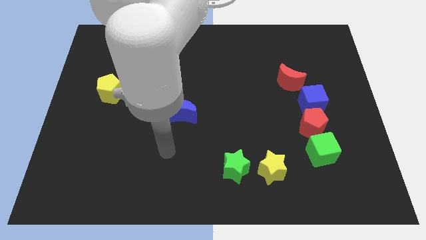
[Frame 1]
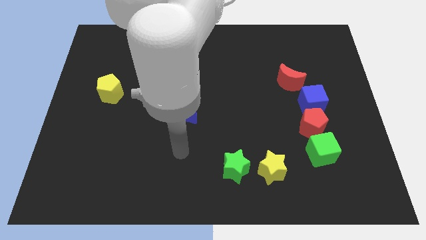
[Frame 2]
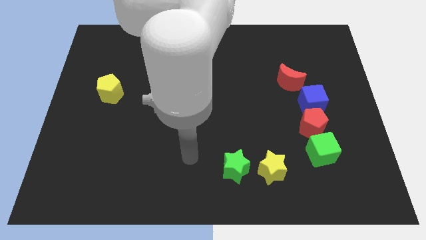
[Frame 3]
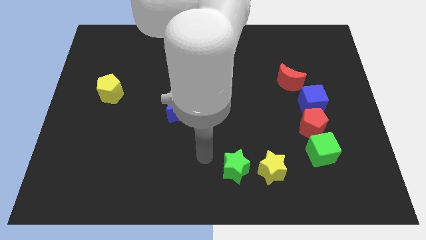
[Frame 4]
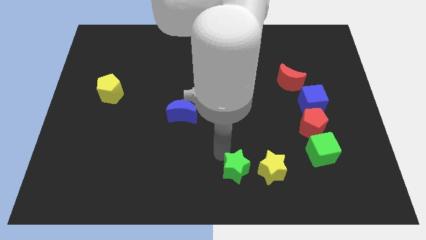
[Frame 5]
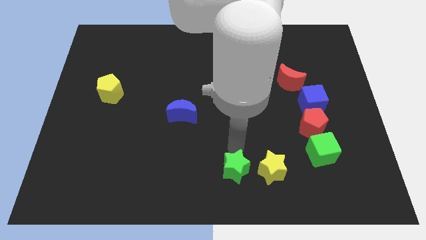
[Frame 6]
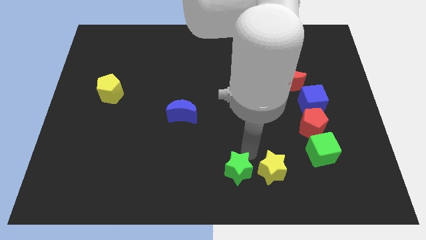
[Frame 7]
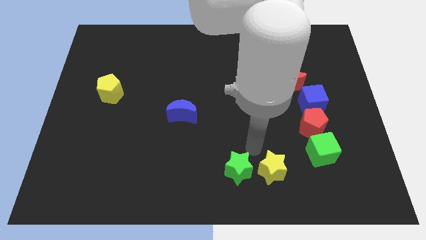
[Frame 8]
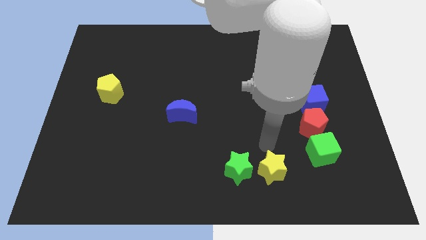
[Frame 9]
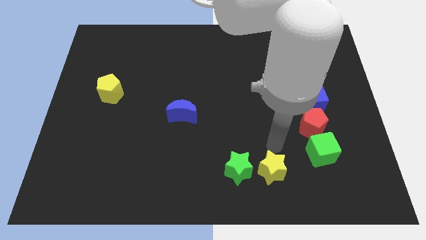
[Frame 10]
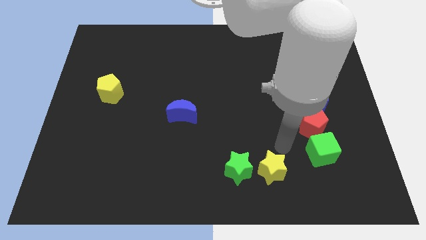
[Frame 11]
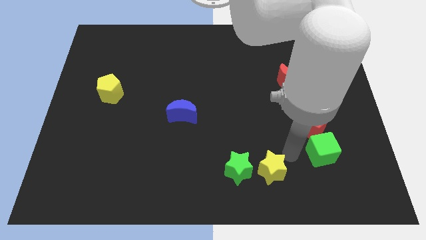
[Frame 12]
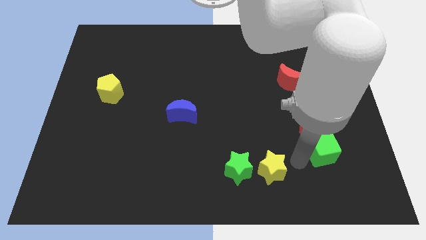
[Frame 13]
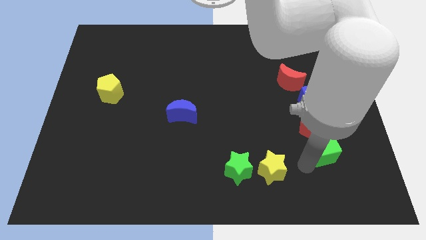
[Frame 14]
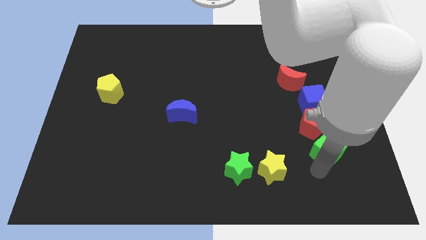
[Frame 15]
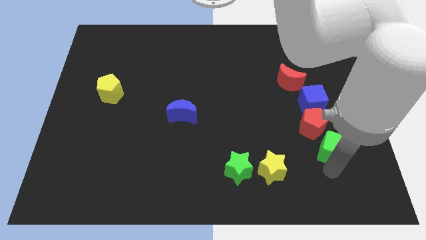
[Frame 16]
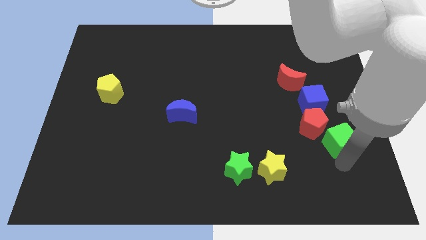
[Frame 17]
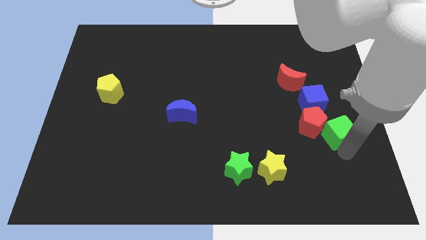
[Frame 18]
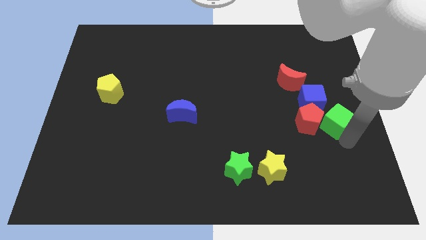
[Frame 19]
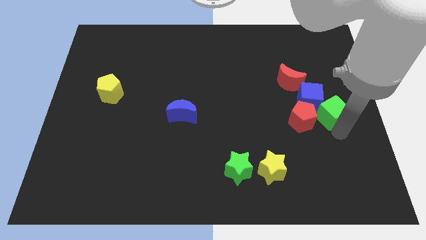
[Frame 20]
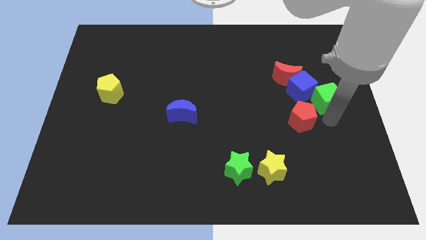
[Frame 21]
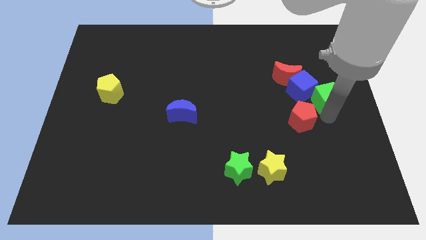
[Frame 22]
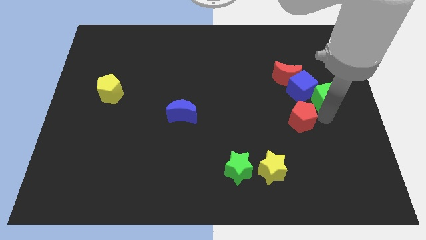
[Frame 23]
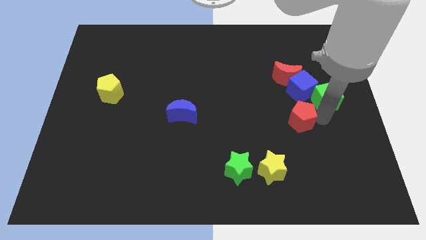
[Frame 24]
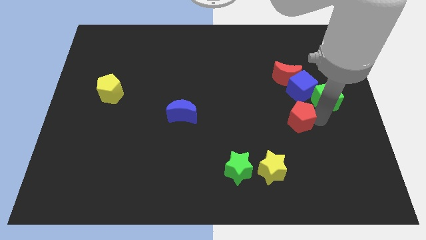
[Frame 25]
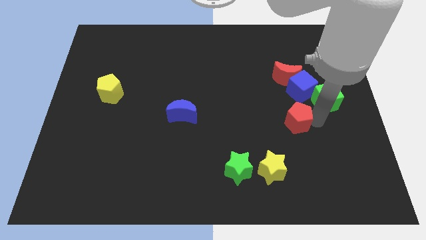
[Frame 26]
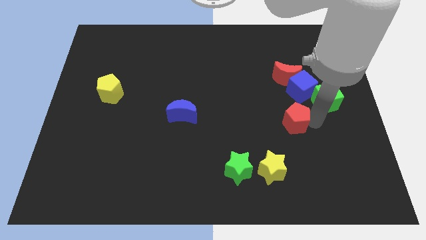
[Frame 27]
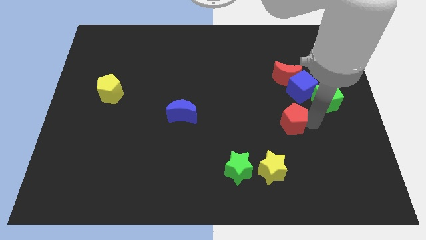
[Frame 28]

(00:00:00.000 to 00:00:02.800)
move the red pentagon away from the blue cube and green cube

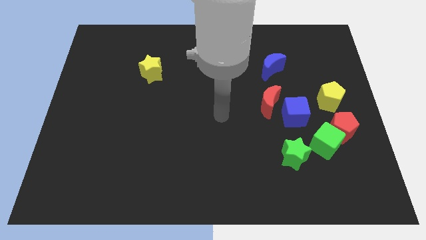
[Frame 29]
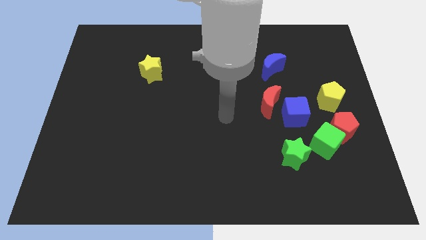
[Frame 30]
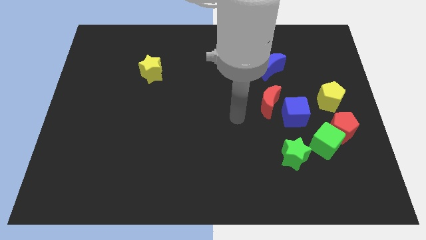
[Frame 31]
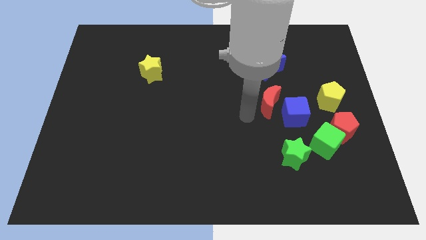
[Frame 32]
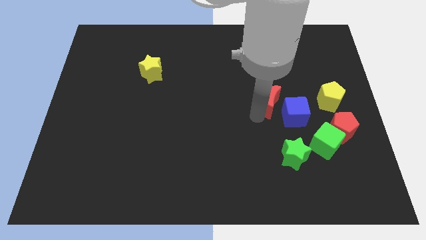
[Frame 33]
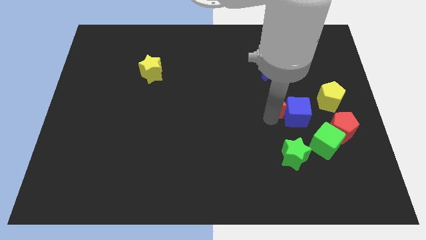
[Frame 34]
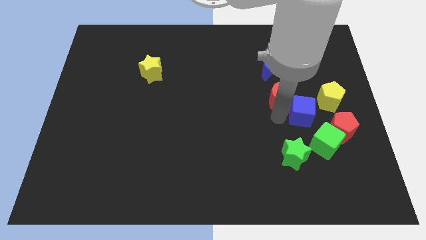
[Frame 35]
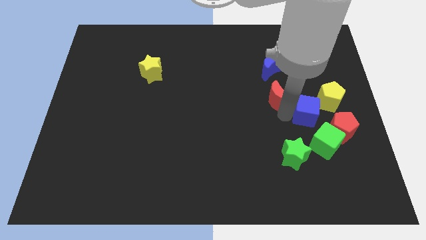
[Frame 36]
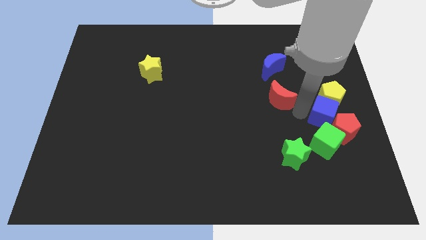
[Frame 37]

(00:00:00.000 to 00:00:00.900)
pull the red moon apart from the blue cube

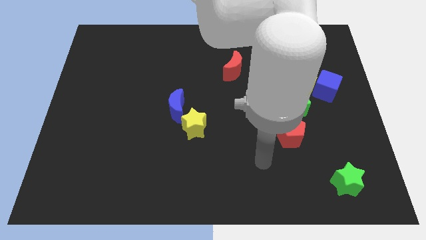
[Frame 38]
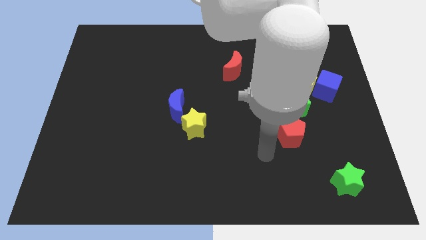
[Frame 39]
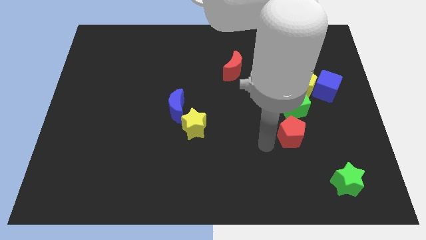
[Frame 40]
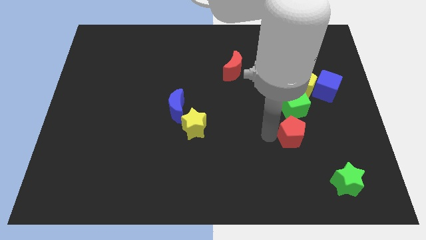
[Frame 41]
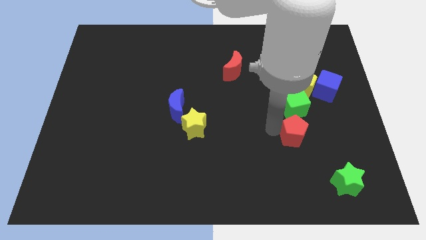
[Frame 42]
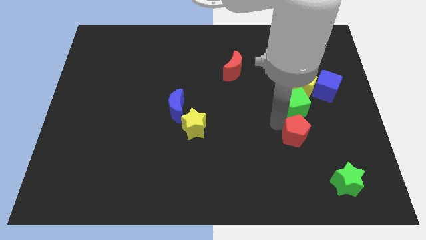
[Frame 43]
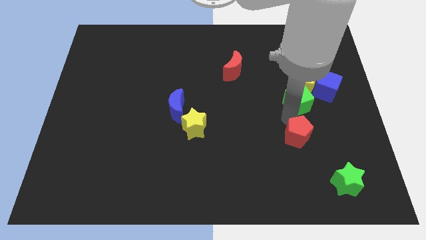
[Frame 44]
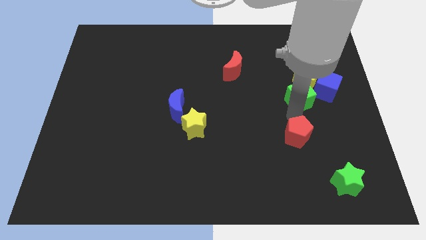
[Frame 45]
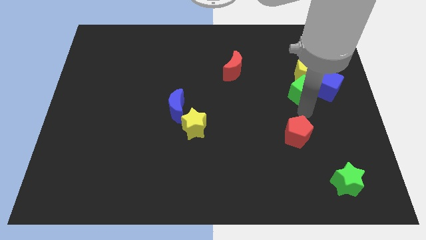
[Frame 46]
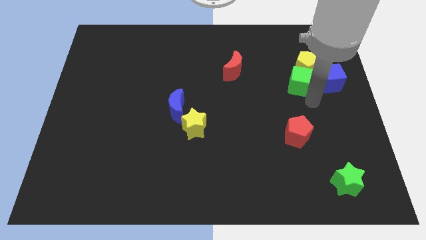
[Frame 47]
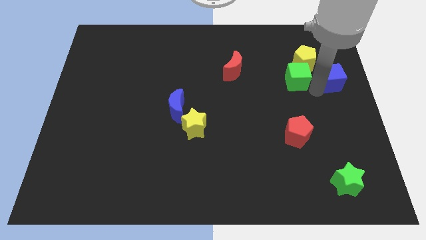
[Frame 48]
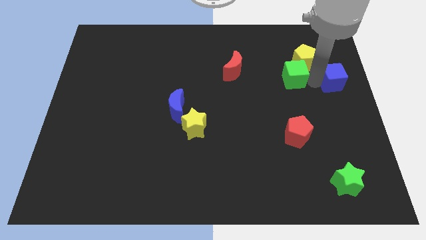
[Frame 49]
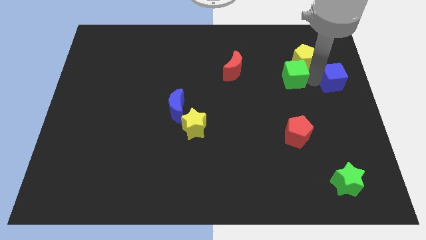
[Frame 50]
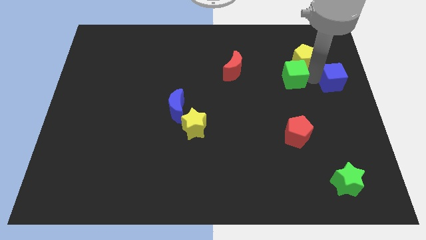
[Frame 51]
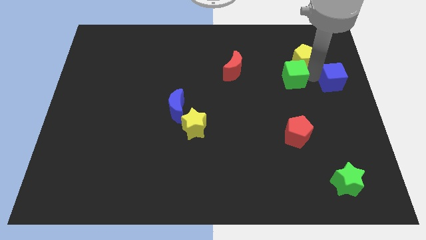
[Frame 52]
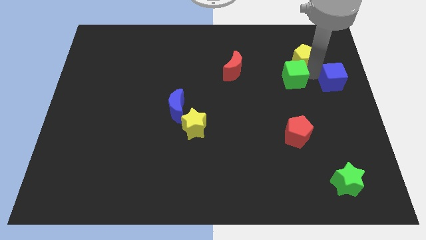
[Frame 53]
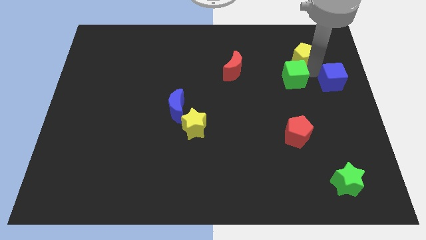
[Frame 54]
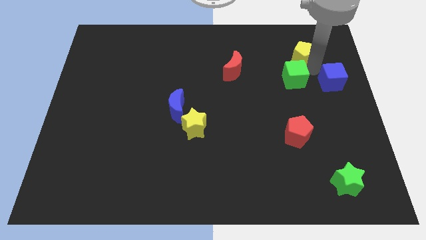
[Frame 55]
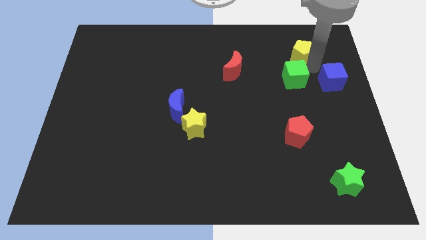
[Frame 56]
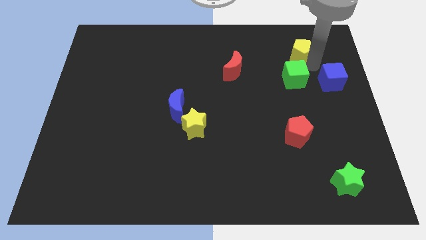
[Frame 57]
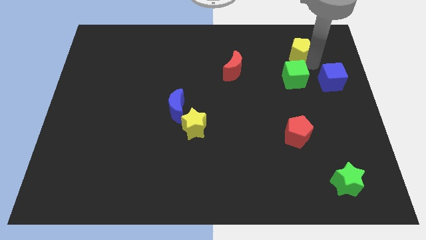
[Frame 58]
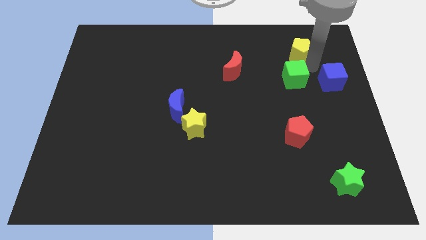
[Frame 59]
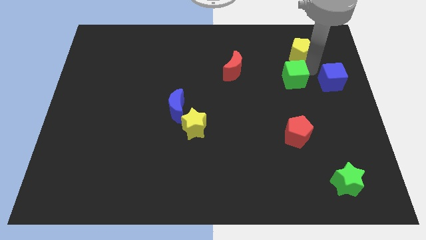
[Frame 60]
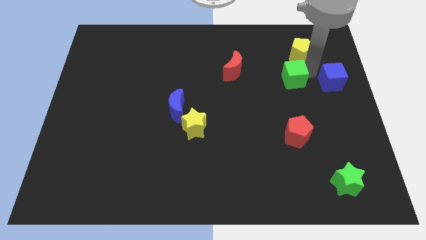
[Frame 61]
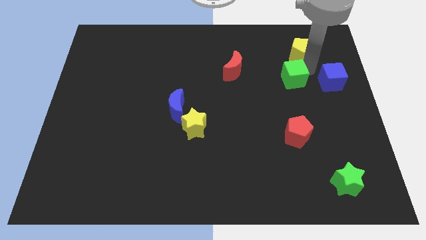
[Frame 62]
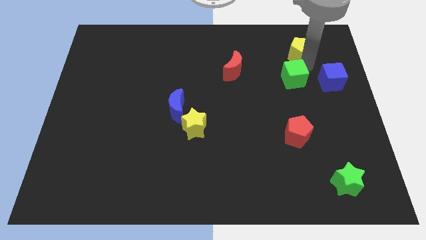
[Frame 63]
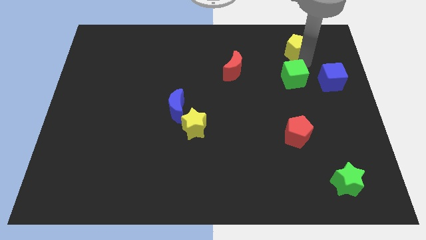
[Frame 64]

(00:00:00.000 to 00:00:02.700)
pull the yellow pentagon apart from the blue cube and green cube

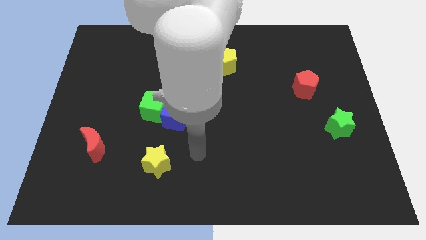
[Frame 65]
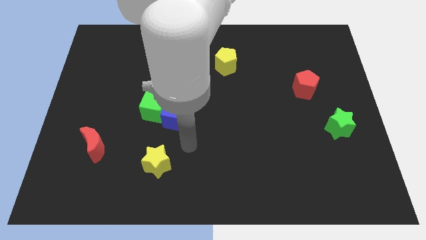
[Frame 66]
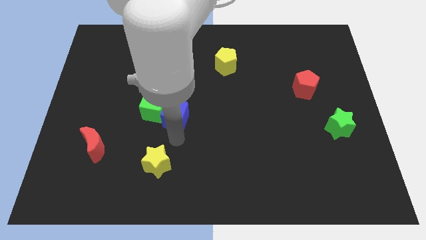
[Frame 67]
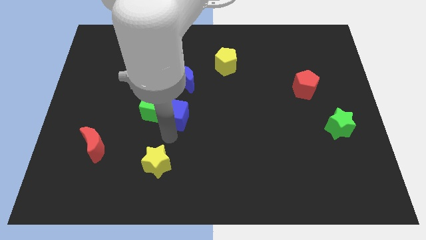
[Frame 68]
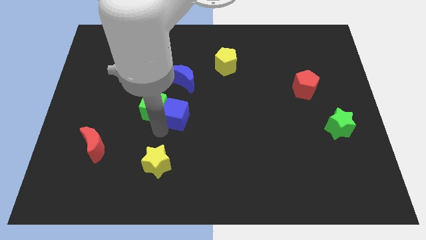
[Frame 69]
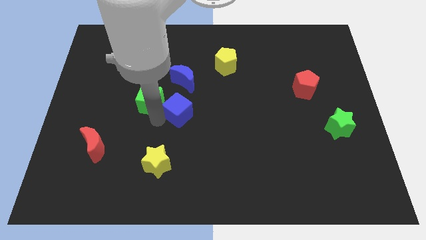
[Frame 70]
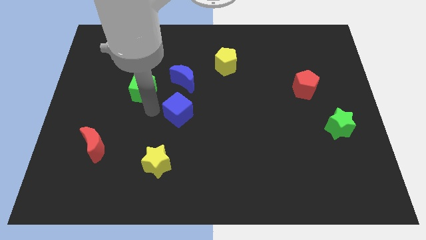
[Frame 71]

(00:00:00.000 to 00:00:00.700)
pull the blue cube apart from the green cube

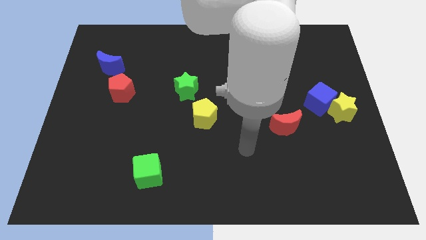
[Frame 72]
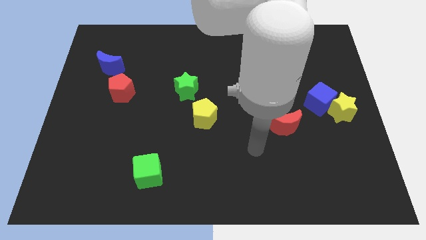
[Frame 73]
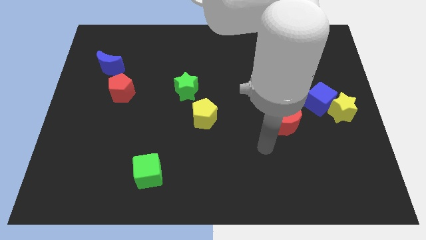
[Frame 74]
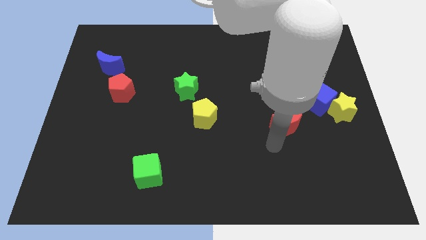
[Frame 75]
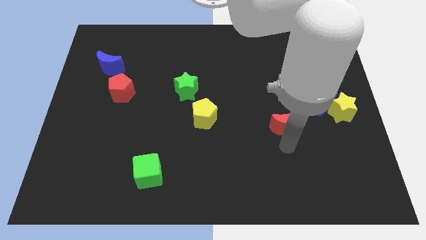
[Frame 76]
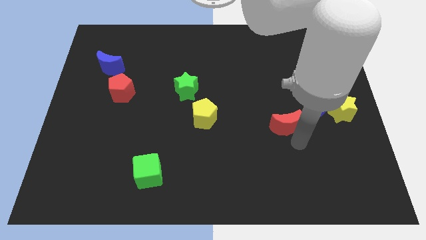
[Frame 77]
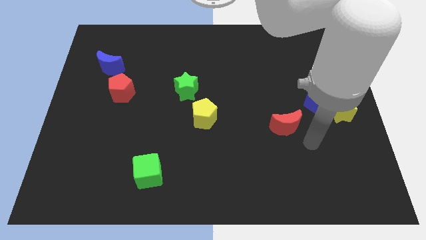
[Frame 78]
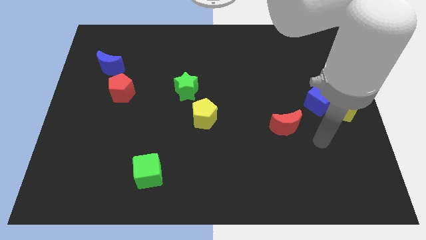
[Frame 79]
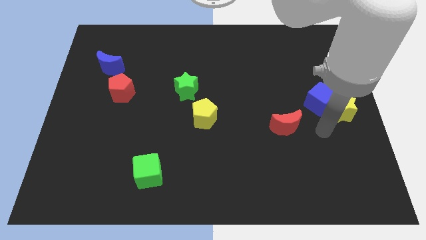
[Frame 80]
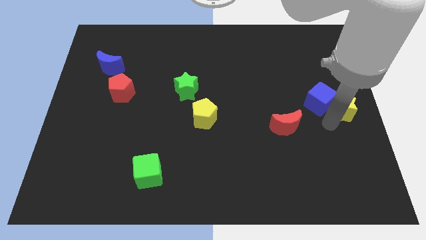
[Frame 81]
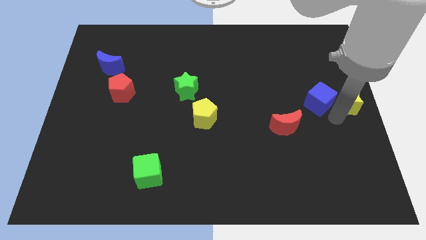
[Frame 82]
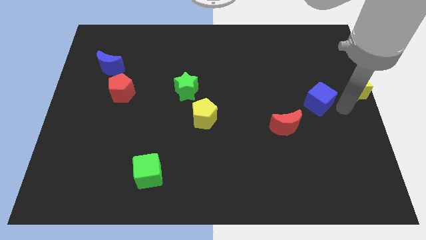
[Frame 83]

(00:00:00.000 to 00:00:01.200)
separate the blue cube from the yellow star
